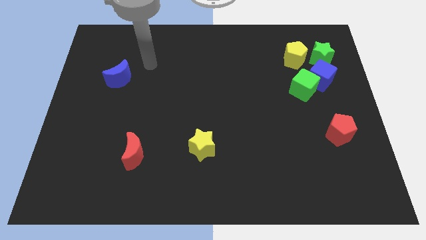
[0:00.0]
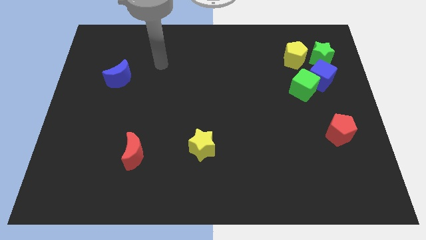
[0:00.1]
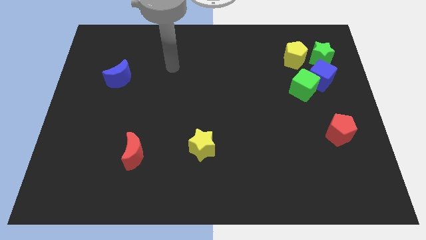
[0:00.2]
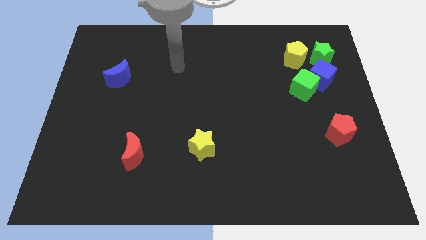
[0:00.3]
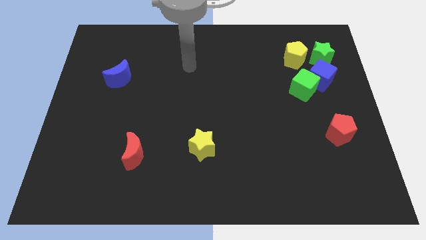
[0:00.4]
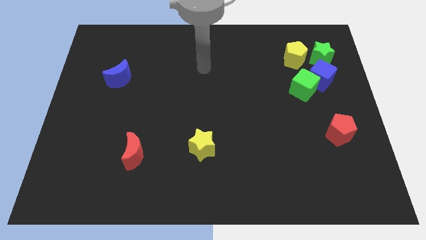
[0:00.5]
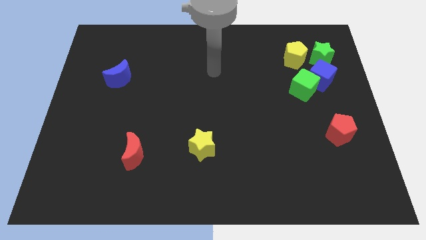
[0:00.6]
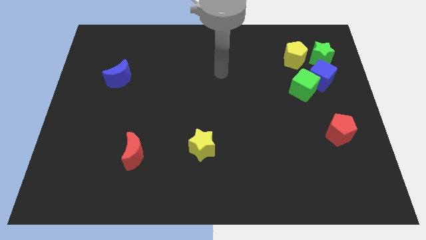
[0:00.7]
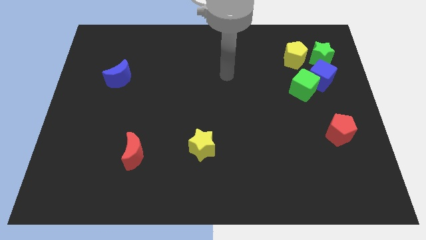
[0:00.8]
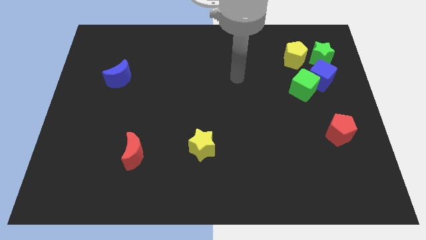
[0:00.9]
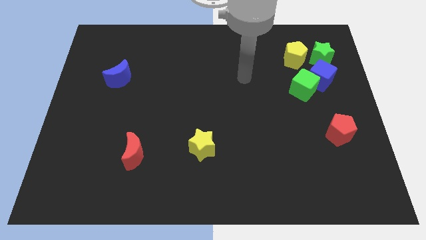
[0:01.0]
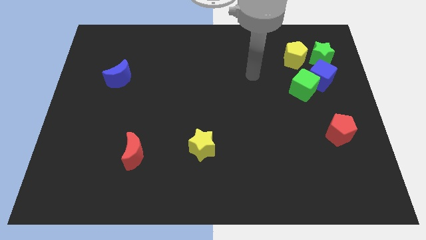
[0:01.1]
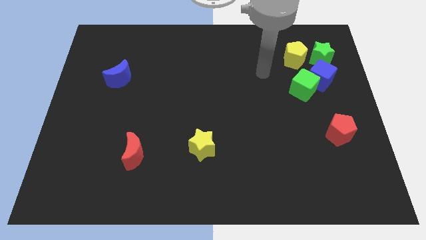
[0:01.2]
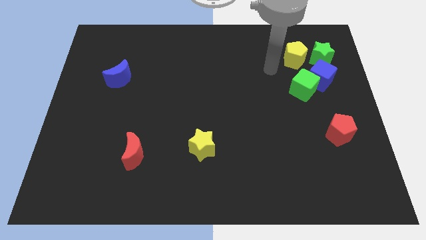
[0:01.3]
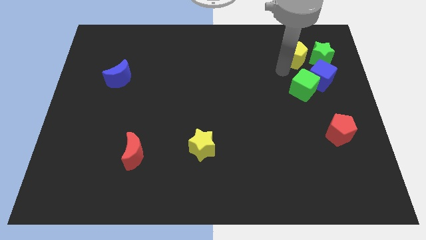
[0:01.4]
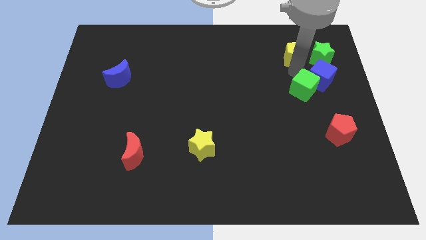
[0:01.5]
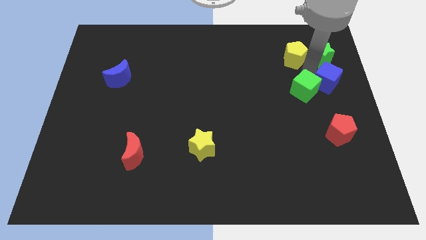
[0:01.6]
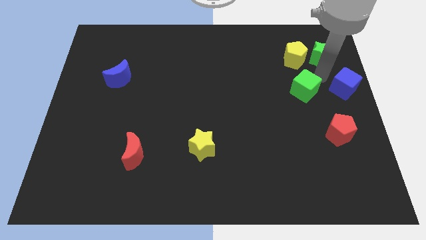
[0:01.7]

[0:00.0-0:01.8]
move the green cube away from the blue cube

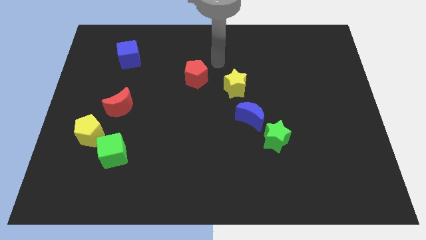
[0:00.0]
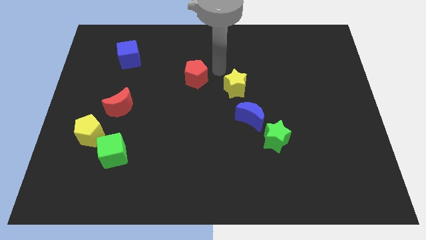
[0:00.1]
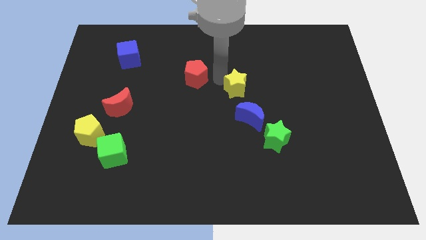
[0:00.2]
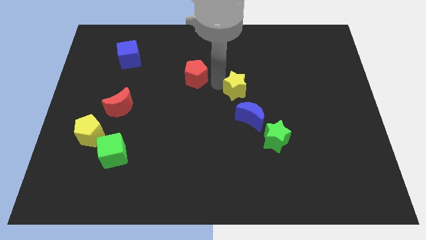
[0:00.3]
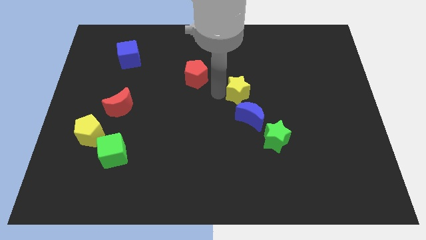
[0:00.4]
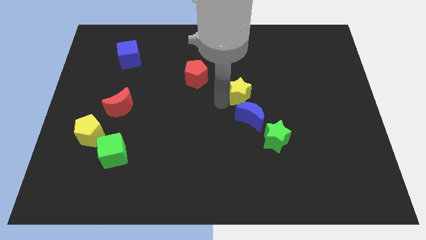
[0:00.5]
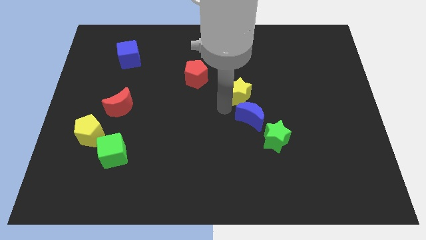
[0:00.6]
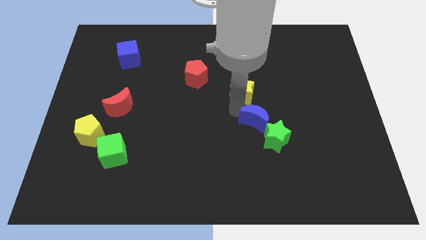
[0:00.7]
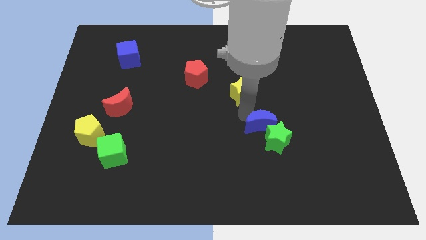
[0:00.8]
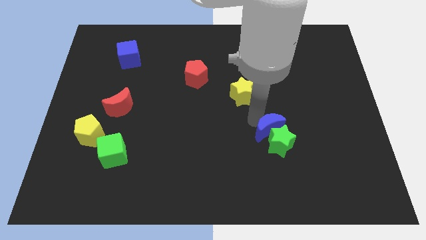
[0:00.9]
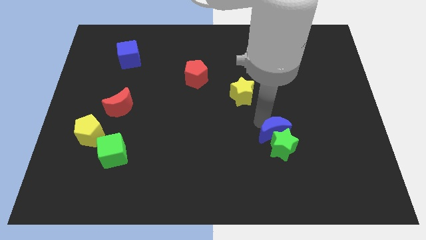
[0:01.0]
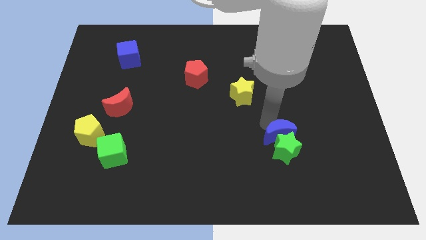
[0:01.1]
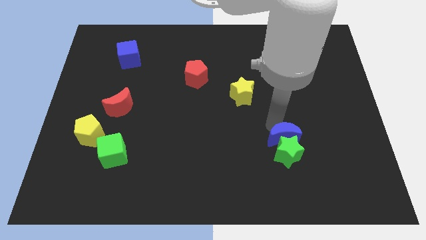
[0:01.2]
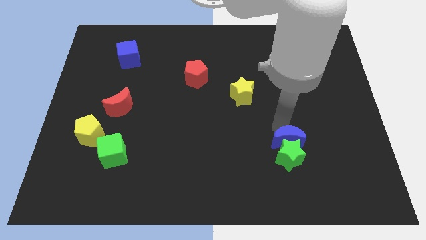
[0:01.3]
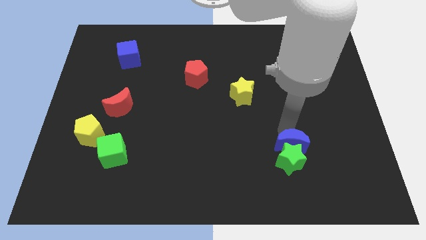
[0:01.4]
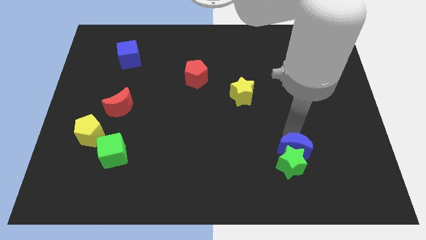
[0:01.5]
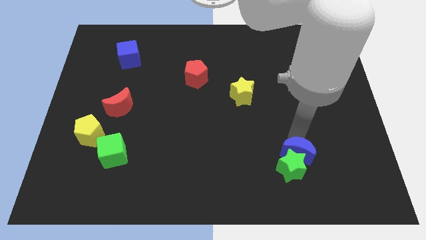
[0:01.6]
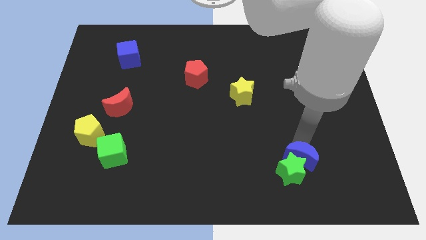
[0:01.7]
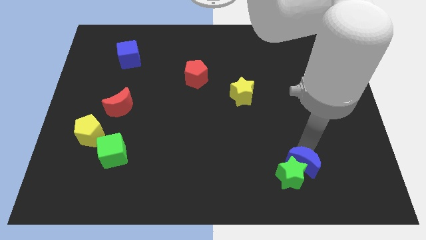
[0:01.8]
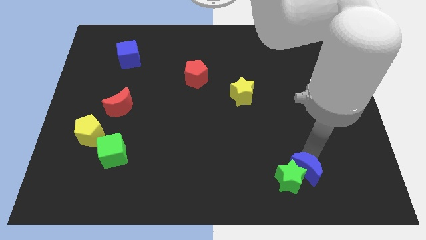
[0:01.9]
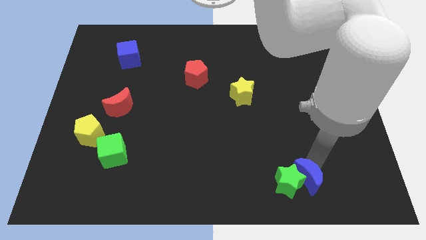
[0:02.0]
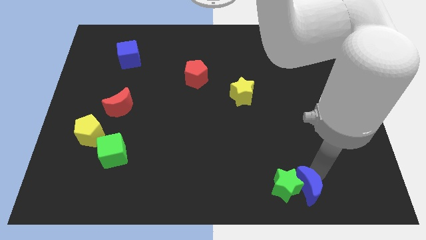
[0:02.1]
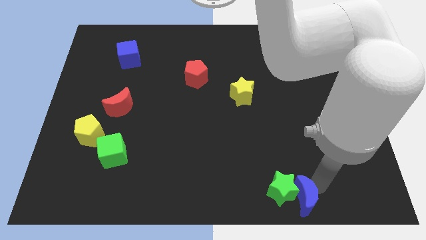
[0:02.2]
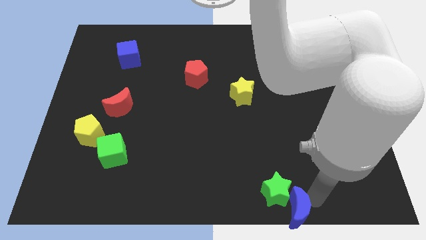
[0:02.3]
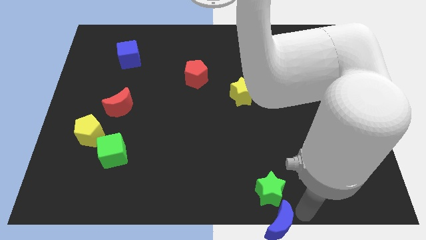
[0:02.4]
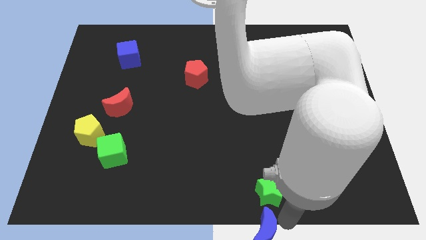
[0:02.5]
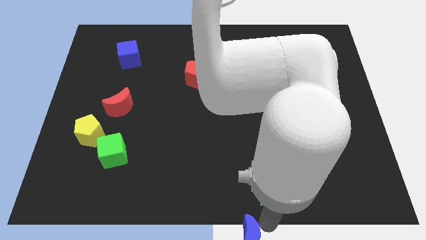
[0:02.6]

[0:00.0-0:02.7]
separate the green star from the blue moon

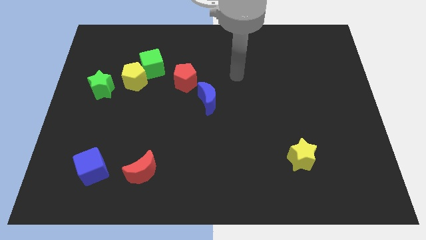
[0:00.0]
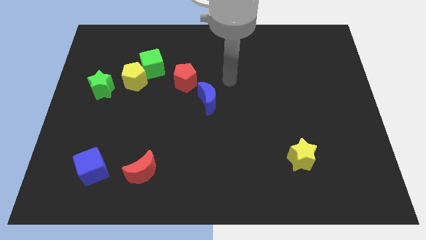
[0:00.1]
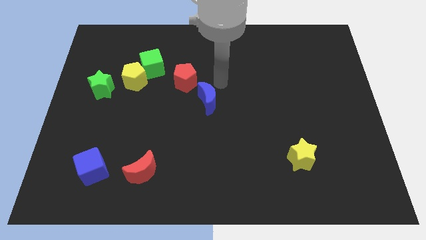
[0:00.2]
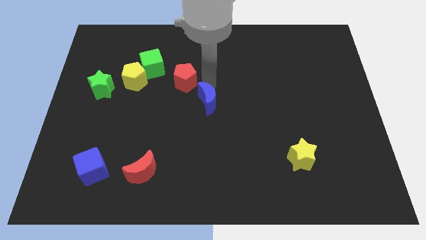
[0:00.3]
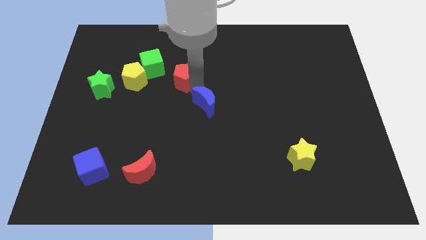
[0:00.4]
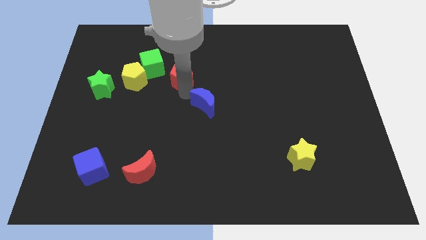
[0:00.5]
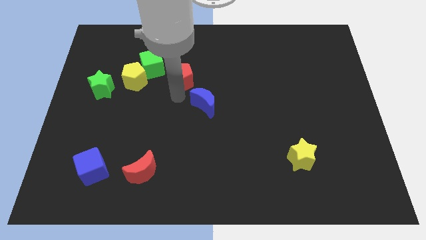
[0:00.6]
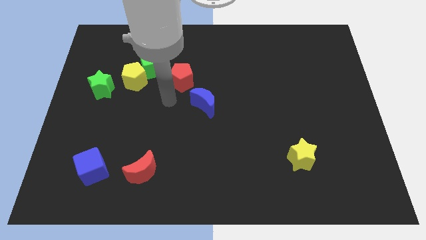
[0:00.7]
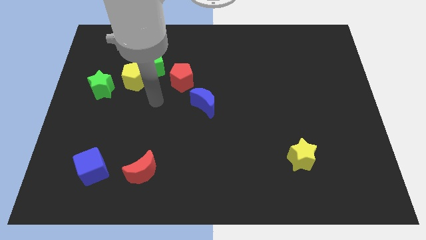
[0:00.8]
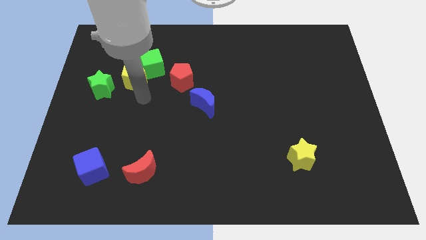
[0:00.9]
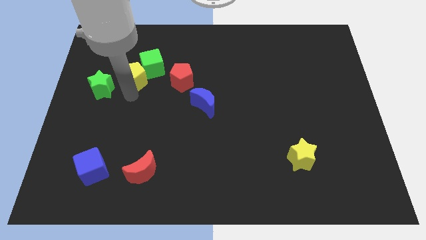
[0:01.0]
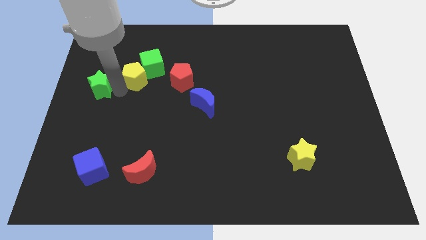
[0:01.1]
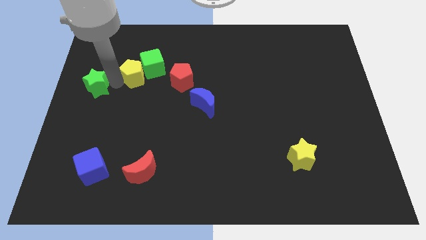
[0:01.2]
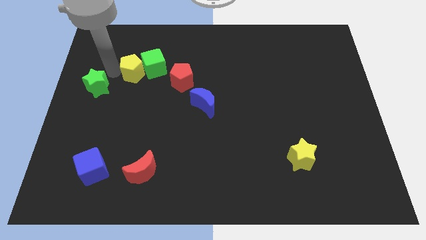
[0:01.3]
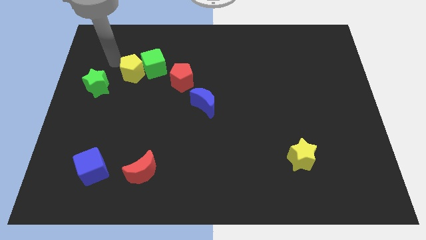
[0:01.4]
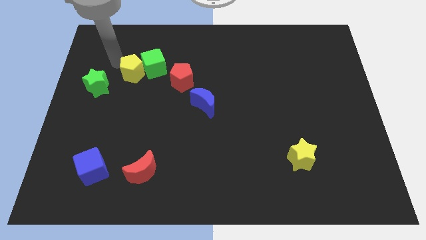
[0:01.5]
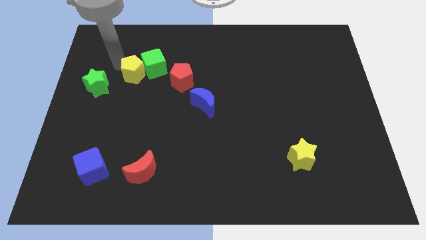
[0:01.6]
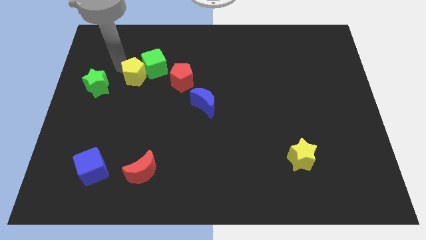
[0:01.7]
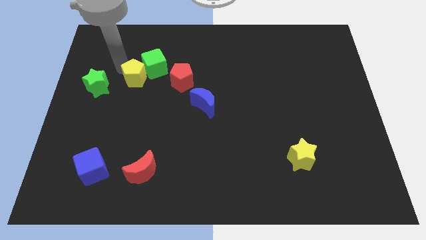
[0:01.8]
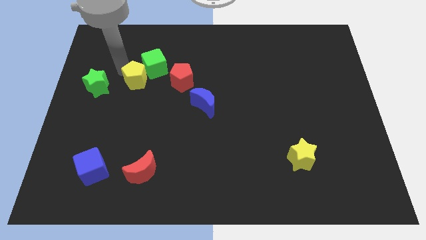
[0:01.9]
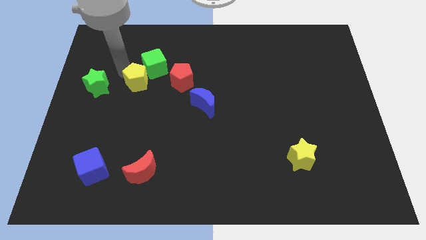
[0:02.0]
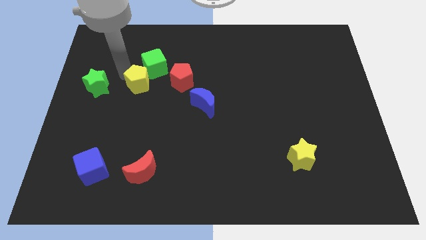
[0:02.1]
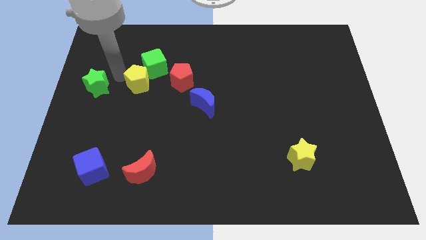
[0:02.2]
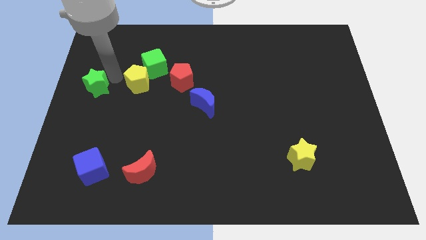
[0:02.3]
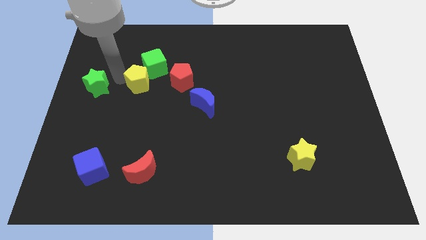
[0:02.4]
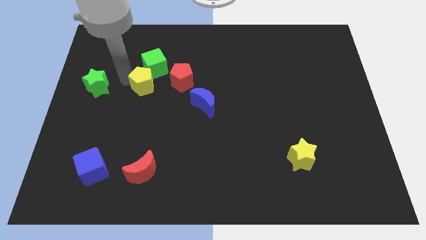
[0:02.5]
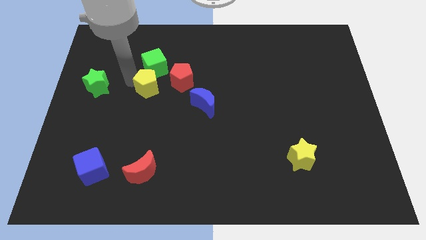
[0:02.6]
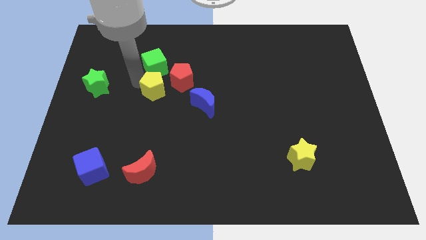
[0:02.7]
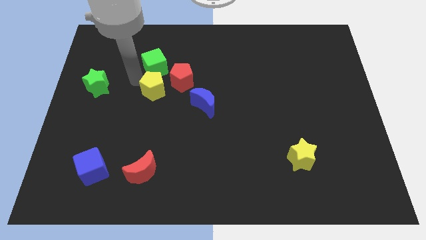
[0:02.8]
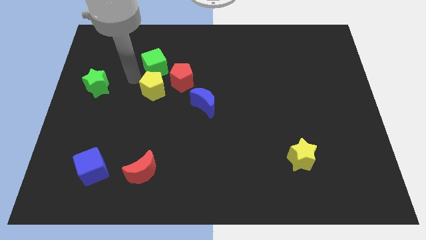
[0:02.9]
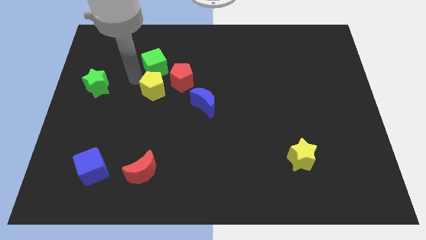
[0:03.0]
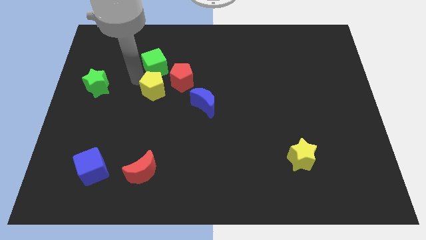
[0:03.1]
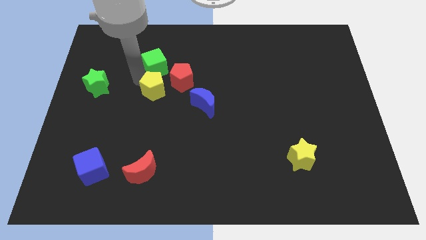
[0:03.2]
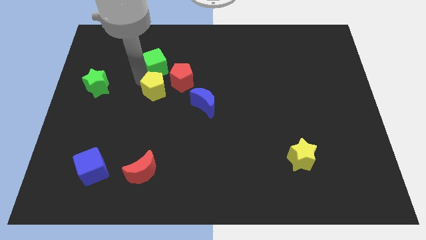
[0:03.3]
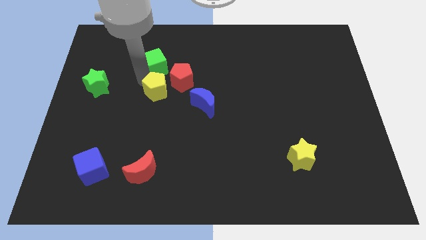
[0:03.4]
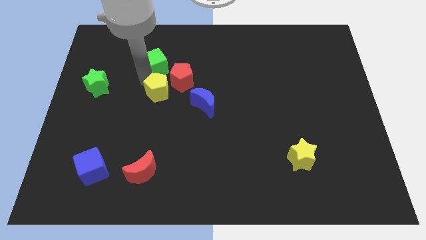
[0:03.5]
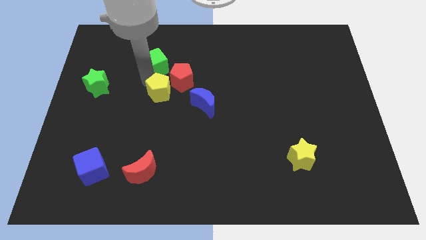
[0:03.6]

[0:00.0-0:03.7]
pull the yellow pentagon apart from the green cube and green star

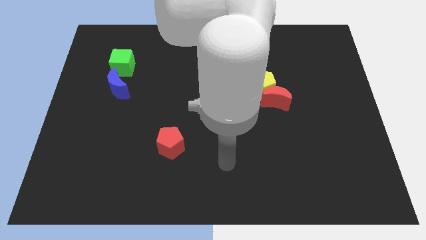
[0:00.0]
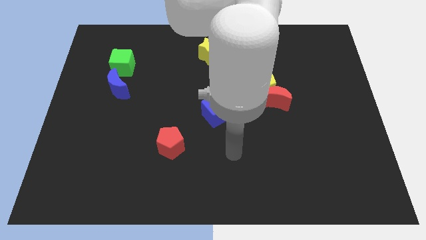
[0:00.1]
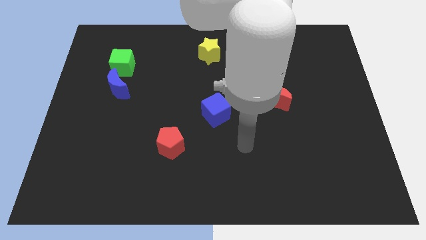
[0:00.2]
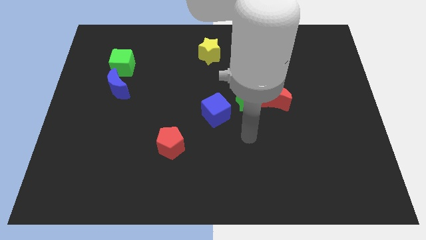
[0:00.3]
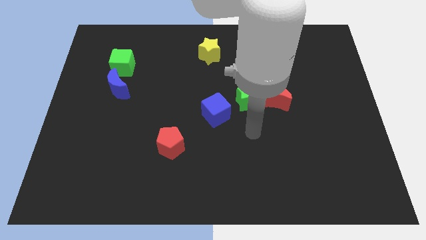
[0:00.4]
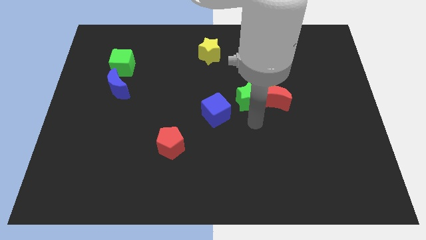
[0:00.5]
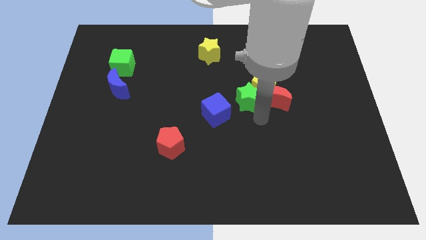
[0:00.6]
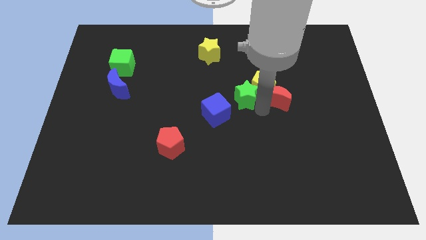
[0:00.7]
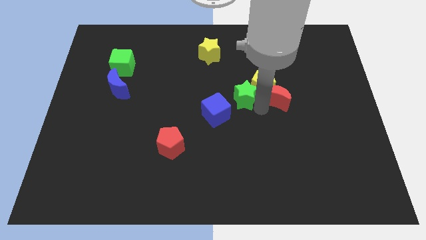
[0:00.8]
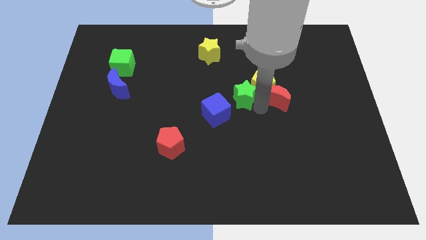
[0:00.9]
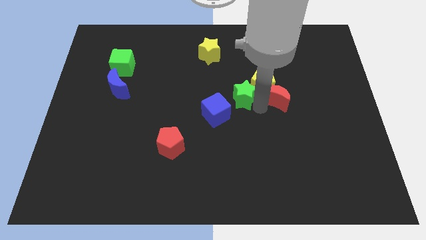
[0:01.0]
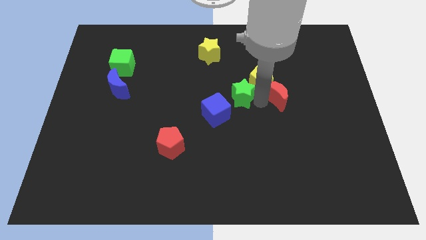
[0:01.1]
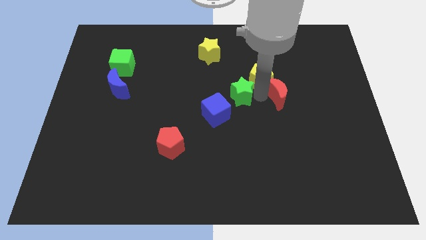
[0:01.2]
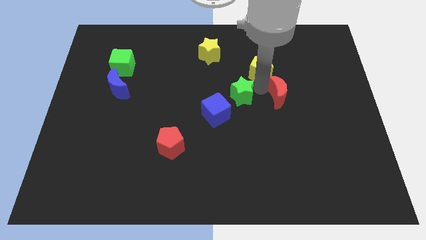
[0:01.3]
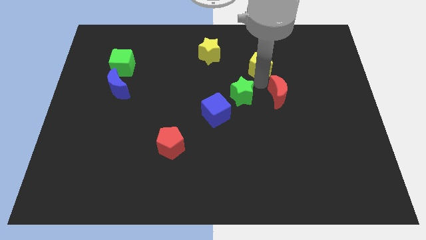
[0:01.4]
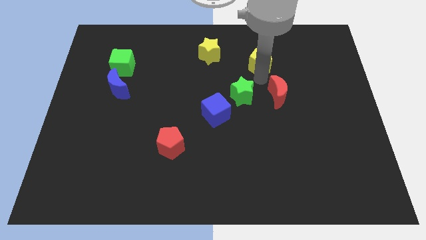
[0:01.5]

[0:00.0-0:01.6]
separate the yellow pentagon from the red moon and green star
